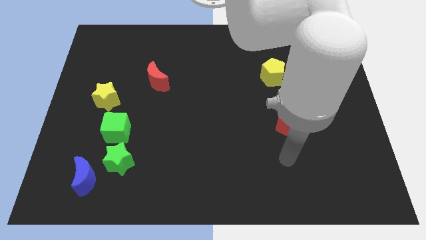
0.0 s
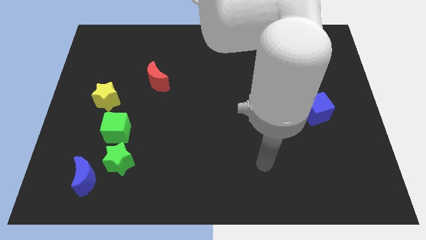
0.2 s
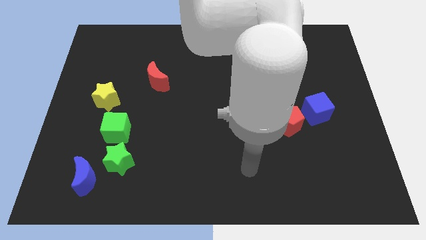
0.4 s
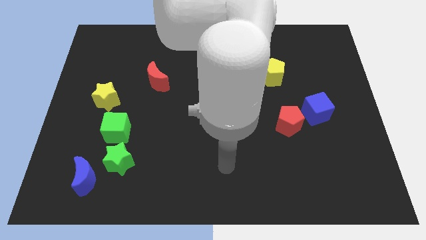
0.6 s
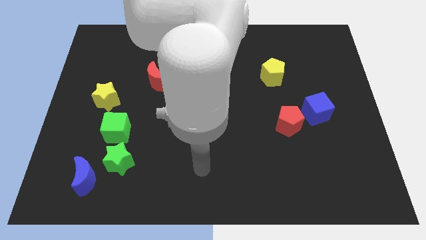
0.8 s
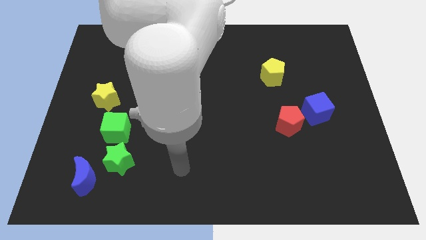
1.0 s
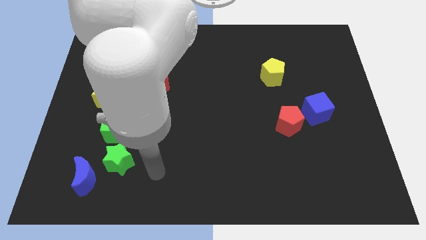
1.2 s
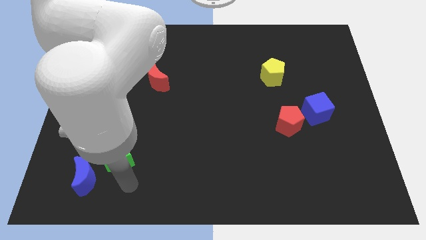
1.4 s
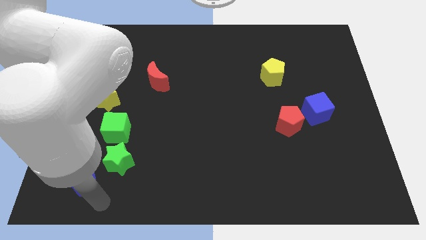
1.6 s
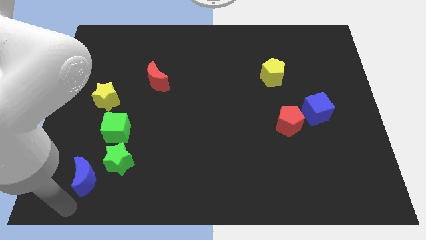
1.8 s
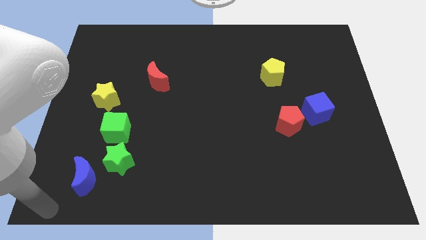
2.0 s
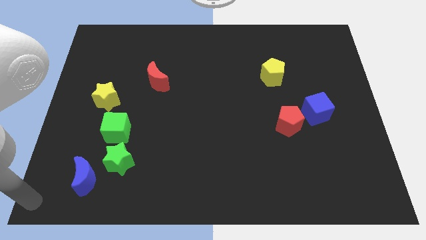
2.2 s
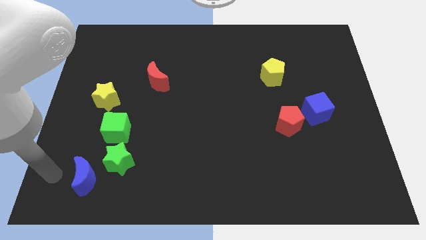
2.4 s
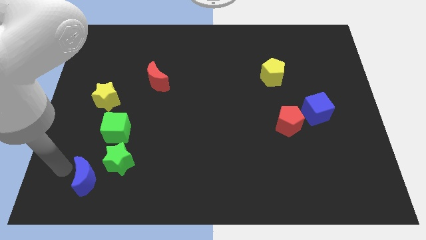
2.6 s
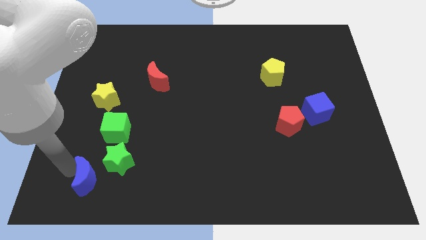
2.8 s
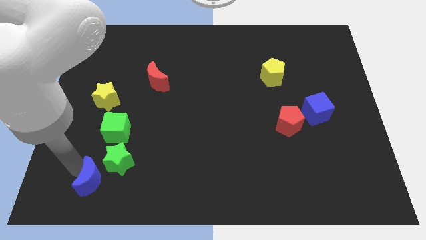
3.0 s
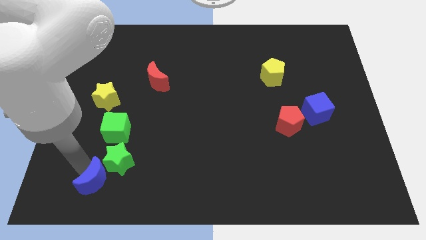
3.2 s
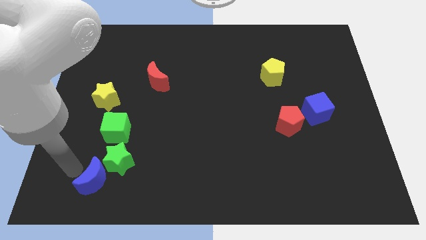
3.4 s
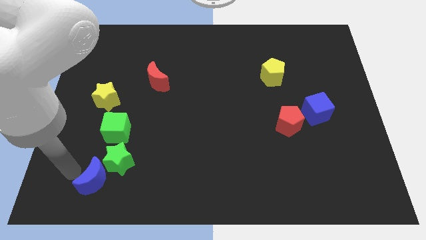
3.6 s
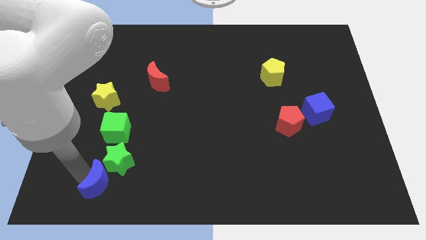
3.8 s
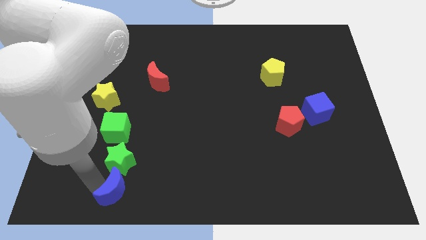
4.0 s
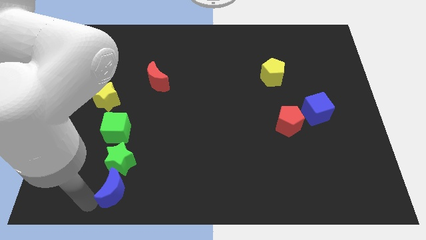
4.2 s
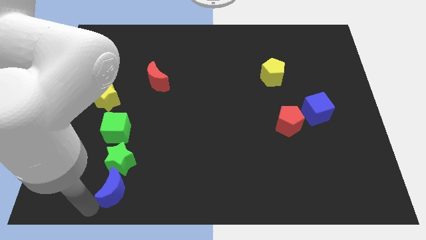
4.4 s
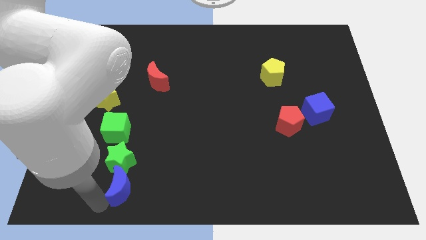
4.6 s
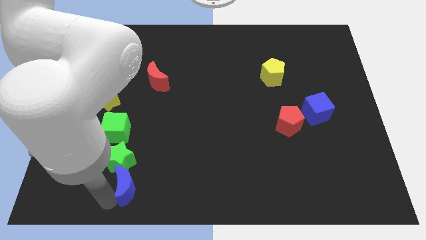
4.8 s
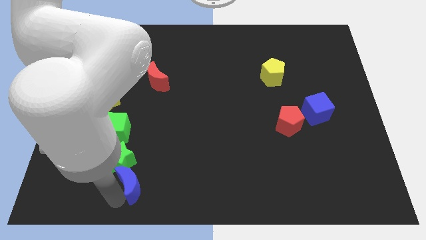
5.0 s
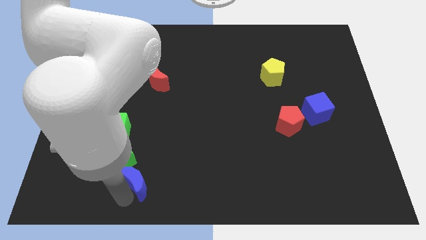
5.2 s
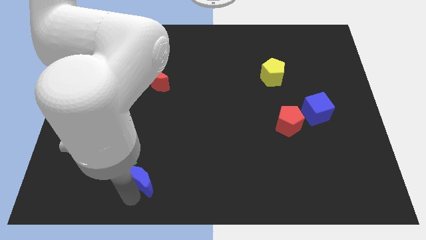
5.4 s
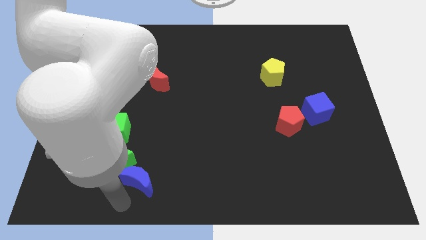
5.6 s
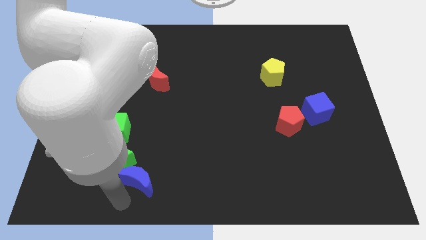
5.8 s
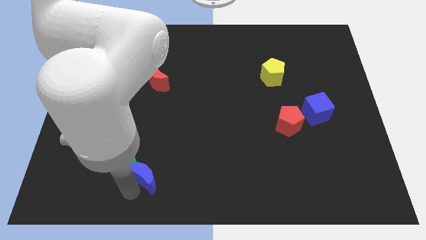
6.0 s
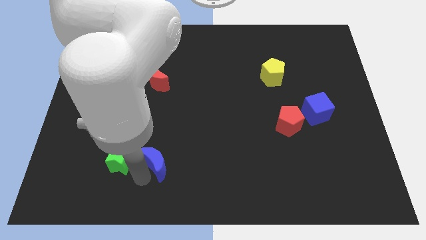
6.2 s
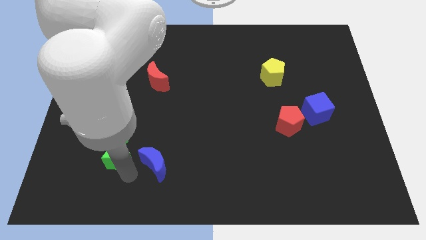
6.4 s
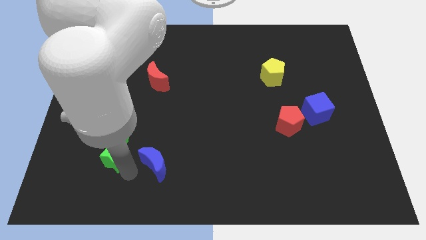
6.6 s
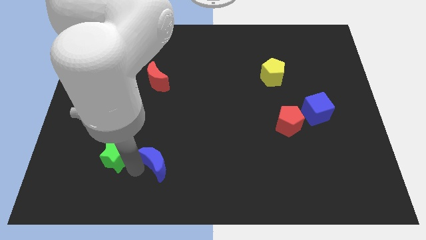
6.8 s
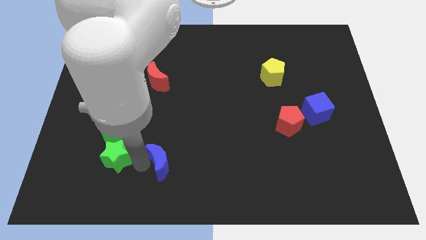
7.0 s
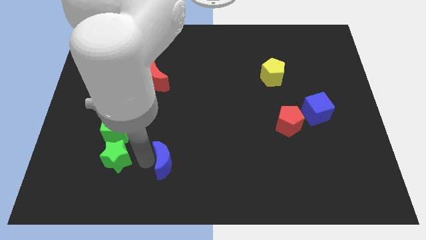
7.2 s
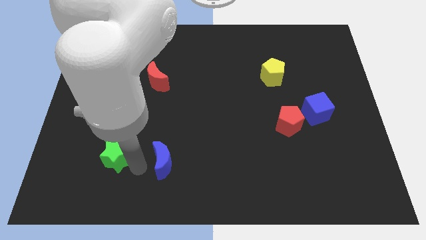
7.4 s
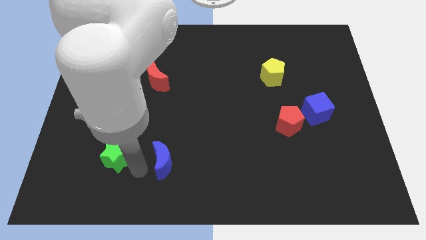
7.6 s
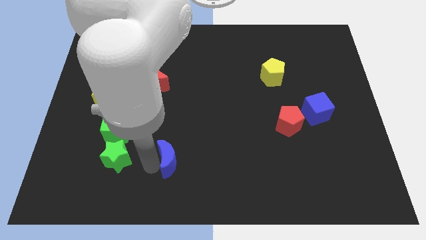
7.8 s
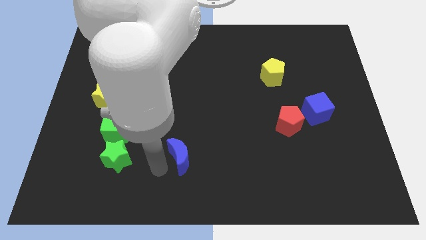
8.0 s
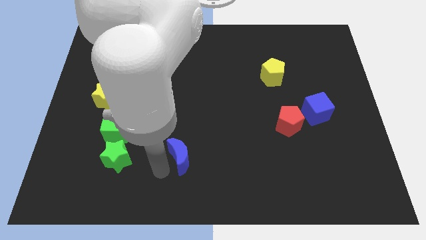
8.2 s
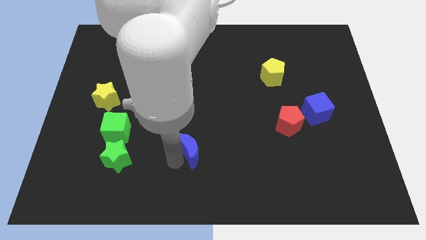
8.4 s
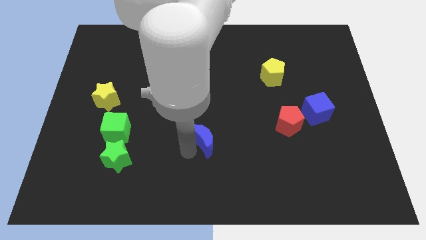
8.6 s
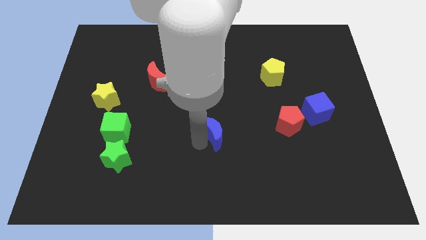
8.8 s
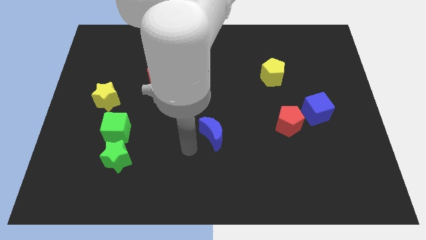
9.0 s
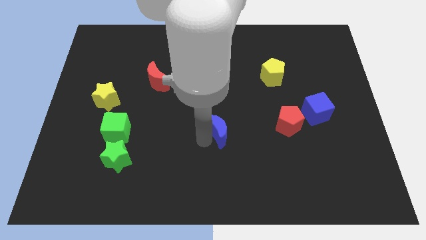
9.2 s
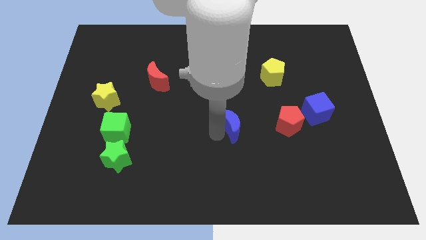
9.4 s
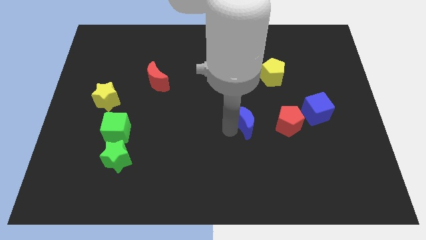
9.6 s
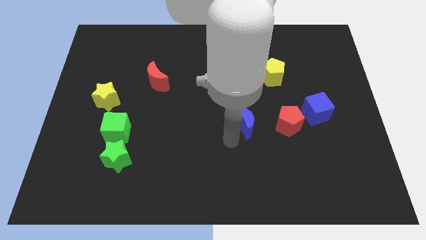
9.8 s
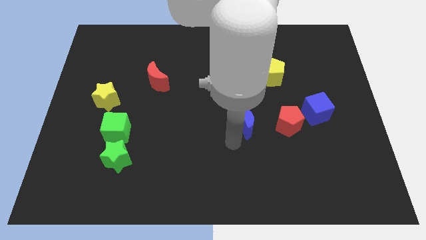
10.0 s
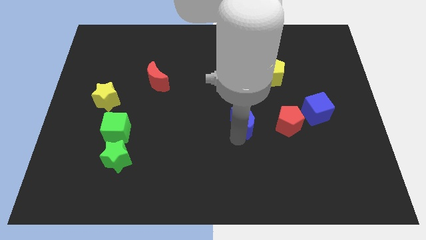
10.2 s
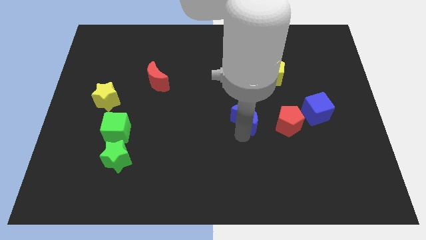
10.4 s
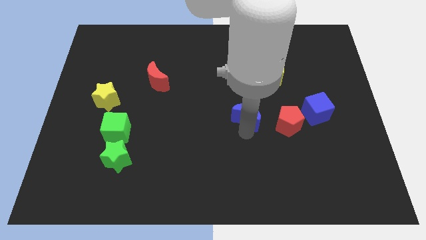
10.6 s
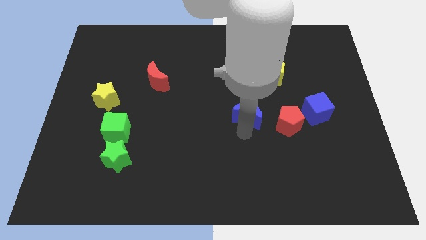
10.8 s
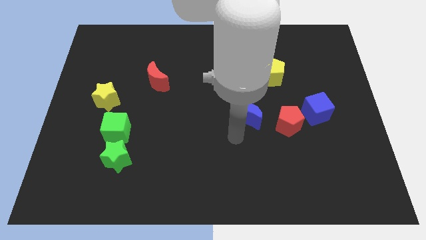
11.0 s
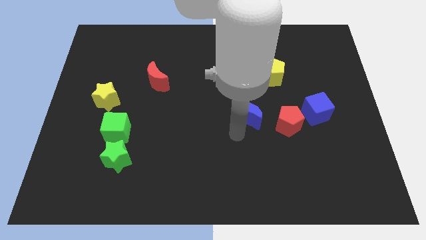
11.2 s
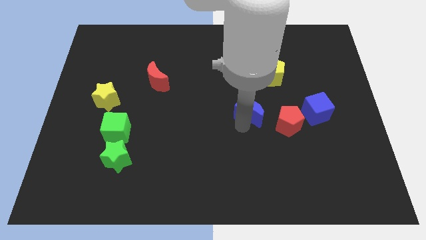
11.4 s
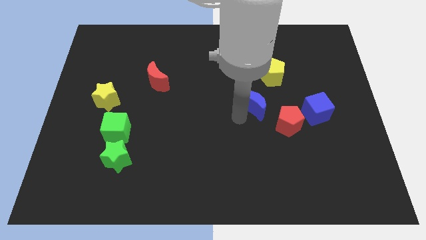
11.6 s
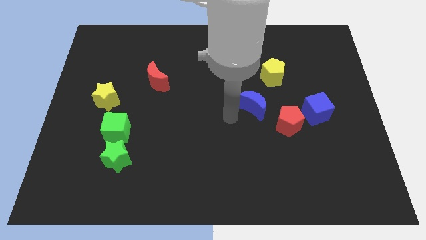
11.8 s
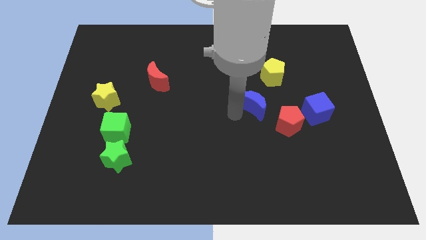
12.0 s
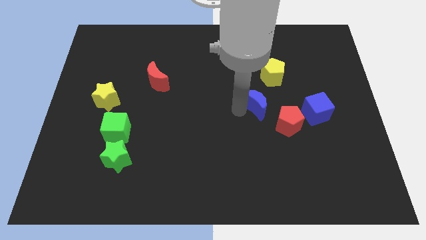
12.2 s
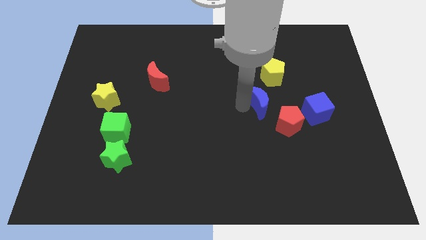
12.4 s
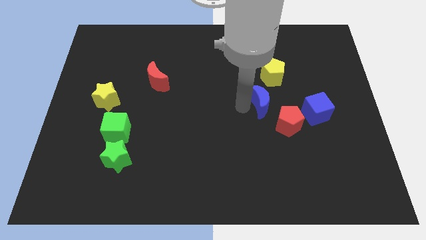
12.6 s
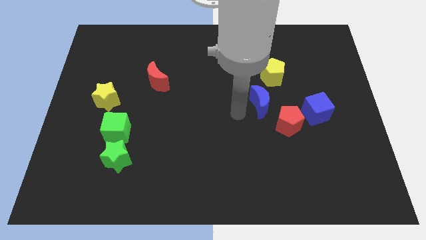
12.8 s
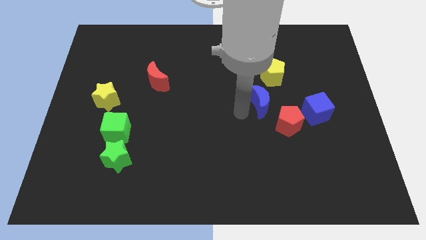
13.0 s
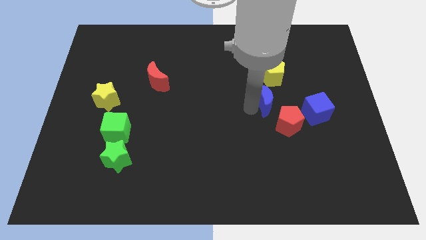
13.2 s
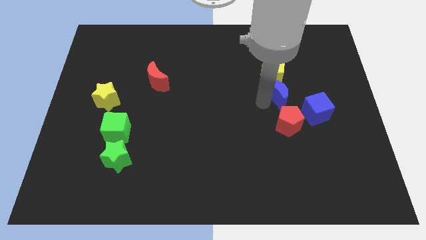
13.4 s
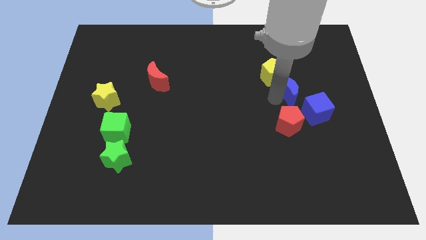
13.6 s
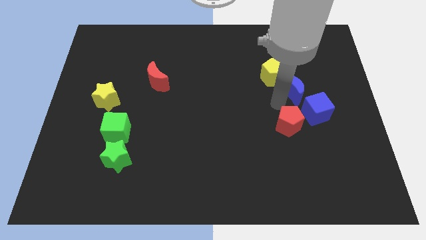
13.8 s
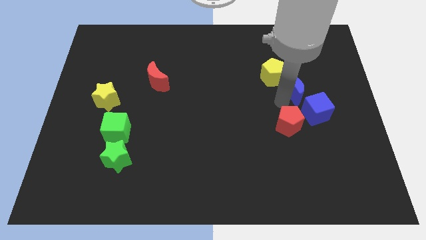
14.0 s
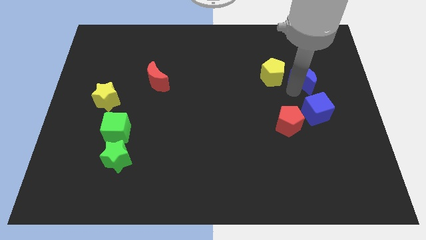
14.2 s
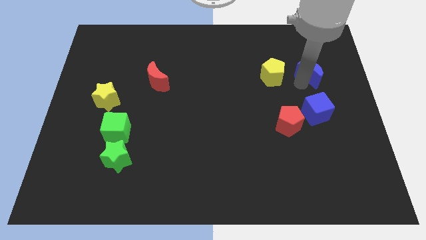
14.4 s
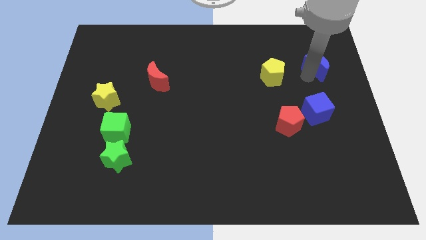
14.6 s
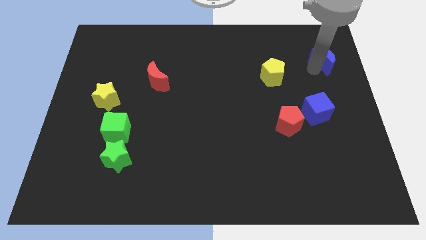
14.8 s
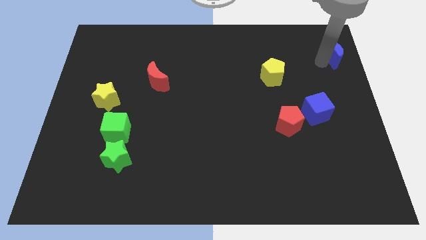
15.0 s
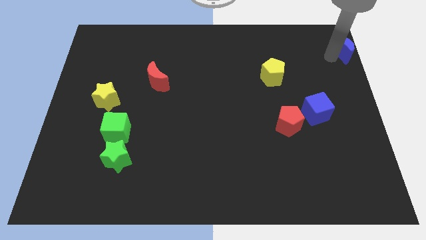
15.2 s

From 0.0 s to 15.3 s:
put the blue moon to the top right corner
